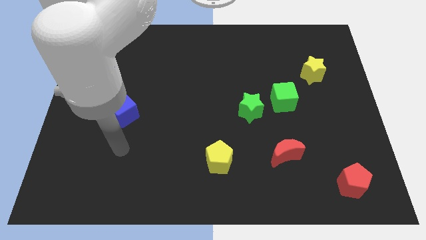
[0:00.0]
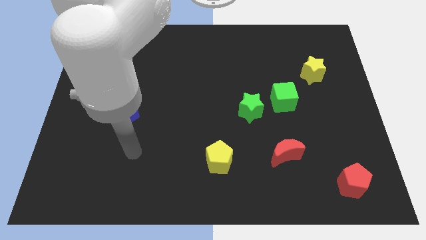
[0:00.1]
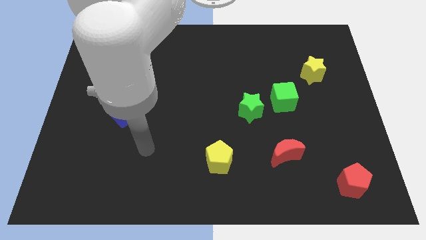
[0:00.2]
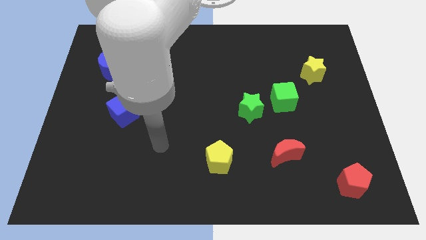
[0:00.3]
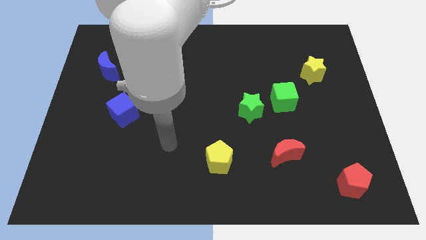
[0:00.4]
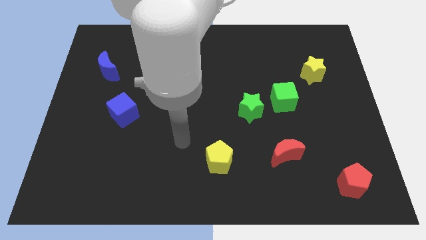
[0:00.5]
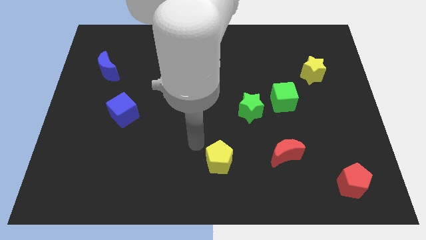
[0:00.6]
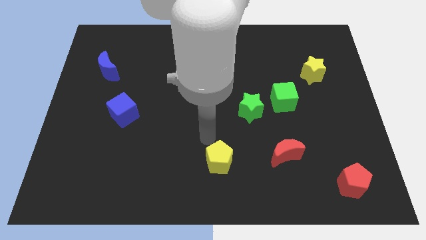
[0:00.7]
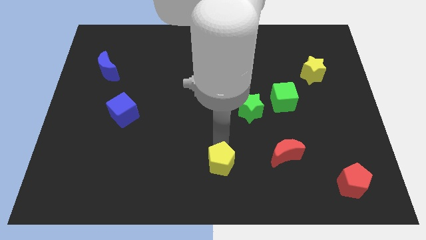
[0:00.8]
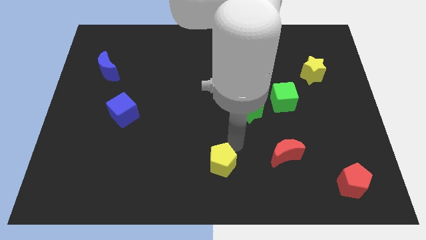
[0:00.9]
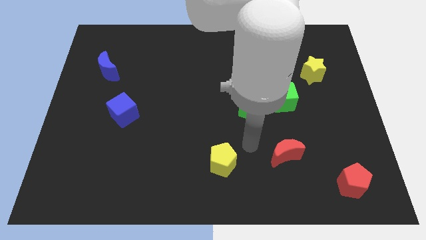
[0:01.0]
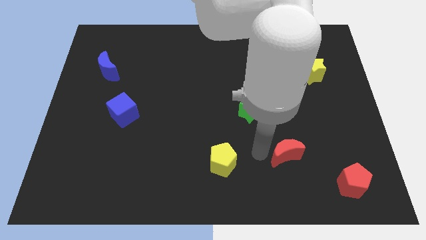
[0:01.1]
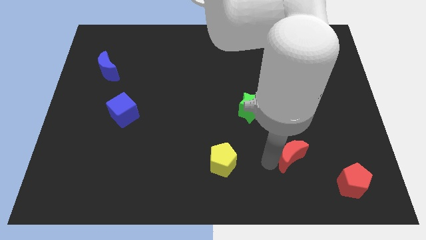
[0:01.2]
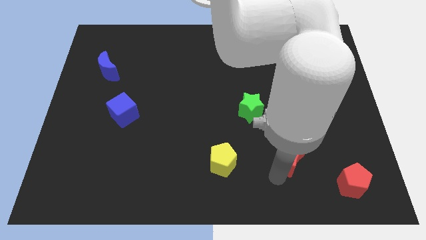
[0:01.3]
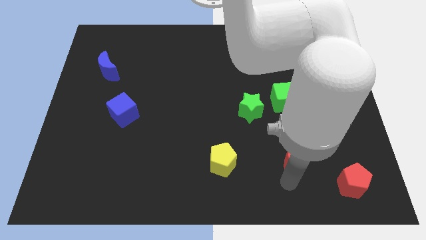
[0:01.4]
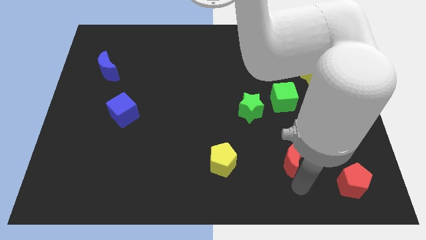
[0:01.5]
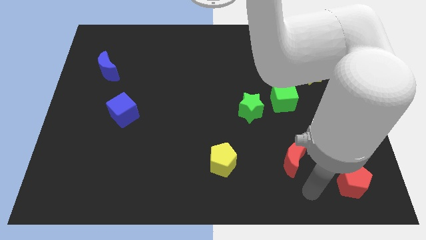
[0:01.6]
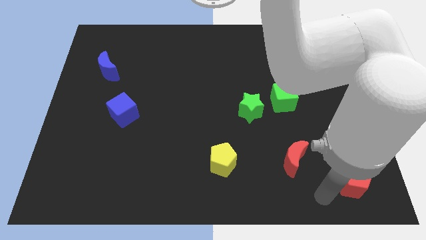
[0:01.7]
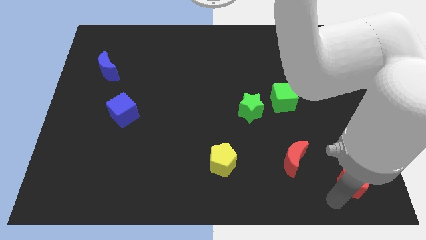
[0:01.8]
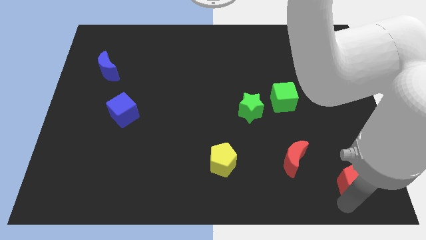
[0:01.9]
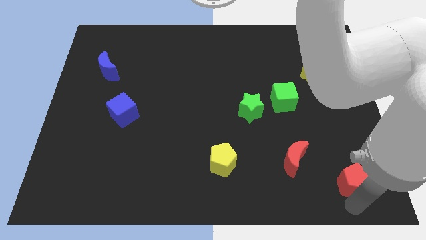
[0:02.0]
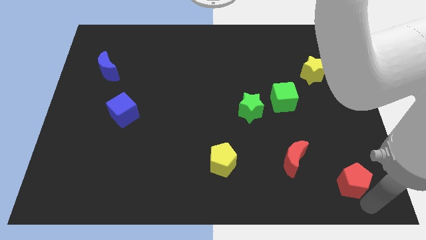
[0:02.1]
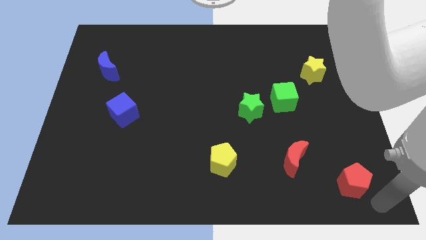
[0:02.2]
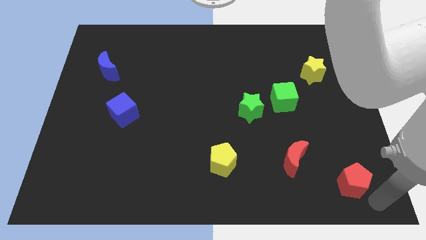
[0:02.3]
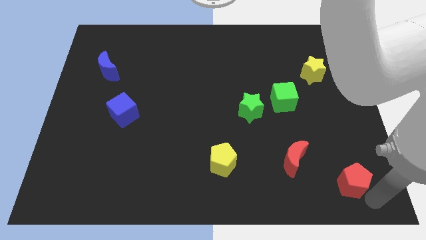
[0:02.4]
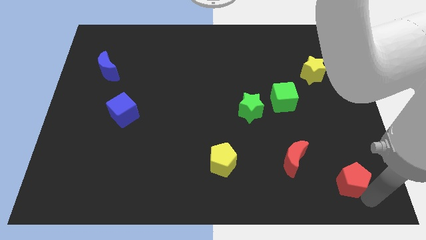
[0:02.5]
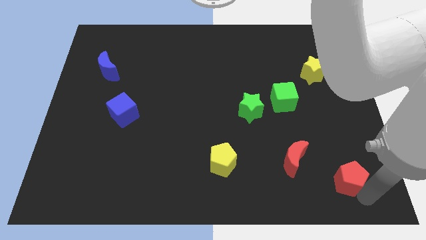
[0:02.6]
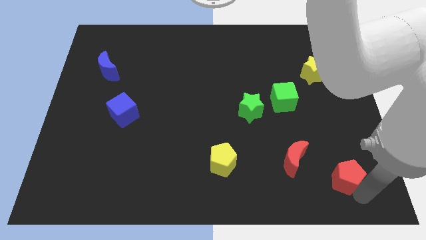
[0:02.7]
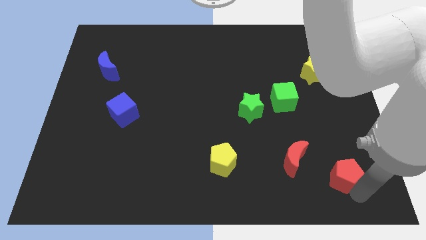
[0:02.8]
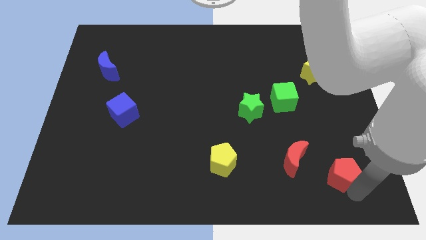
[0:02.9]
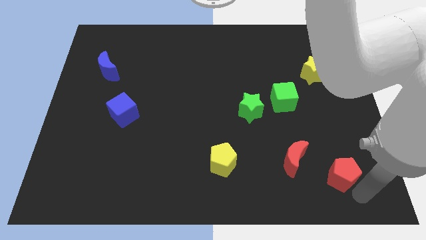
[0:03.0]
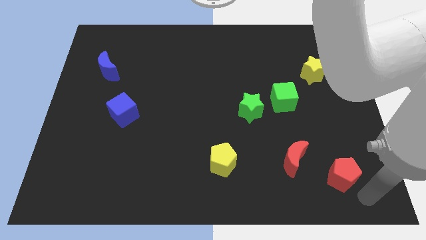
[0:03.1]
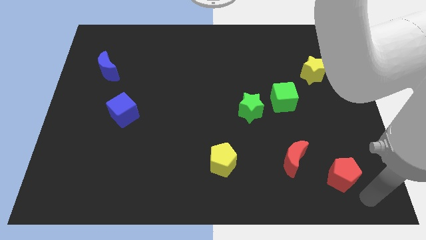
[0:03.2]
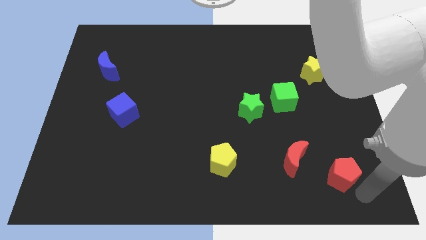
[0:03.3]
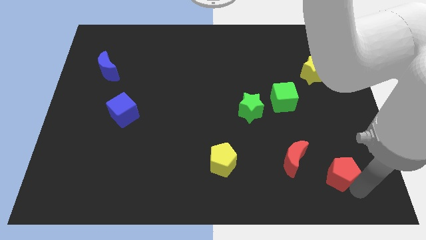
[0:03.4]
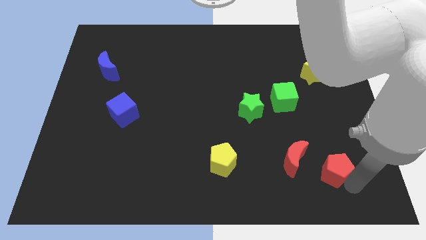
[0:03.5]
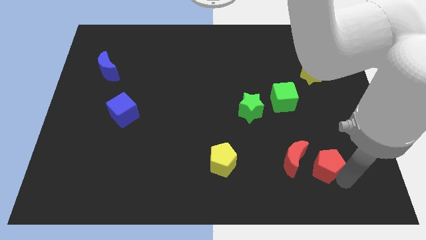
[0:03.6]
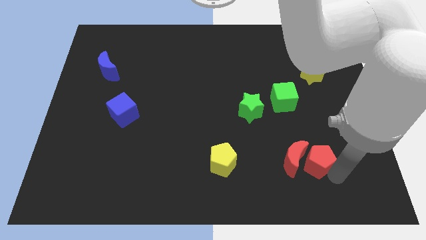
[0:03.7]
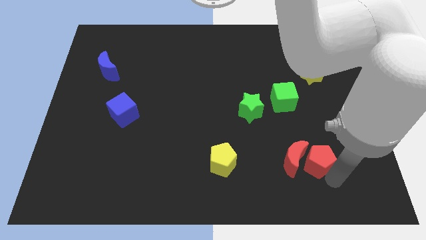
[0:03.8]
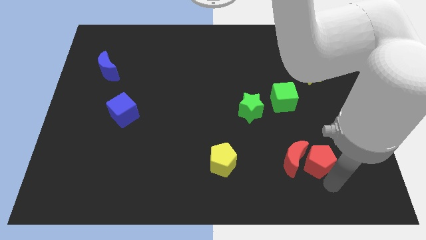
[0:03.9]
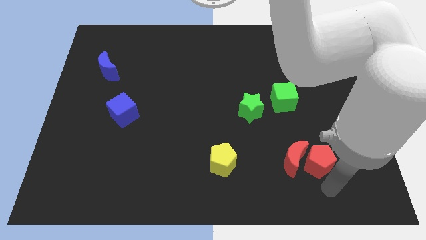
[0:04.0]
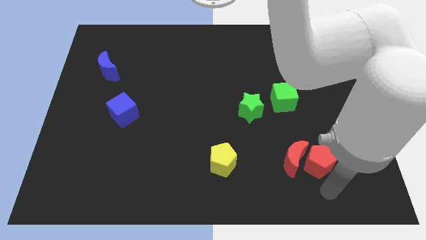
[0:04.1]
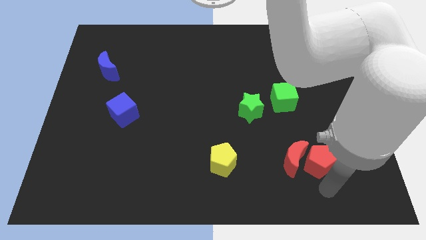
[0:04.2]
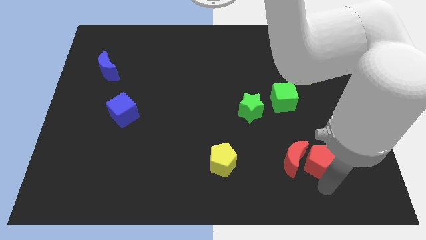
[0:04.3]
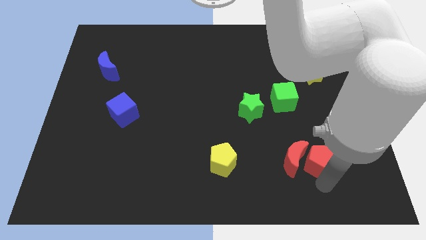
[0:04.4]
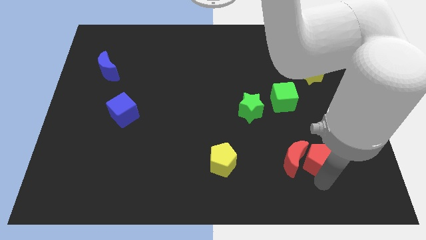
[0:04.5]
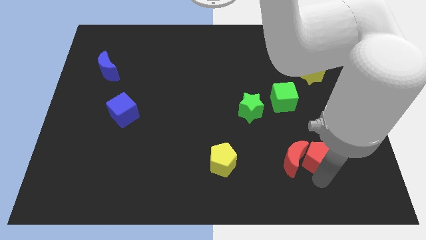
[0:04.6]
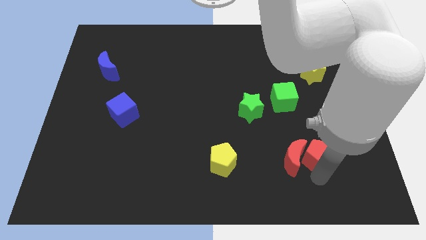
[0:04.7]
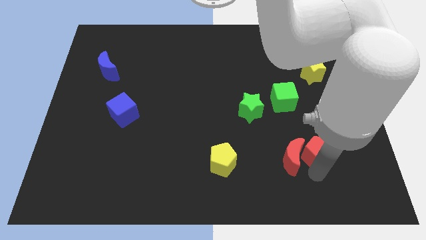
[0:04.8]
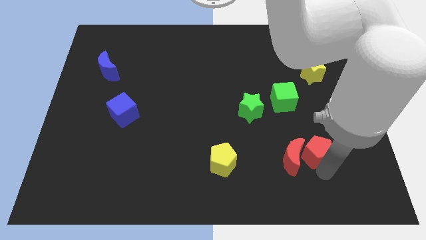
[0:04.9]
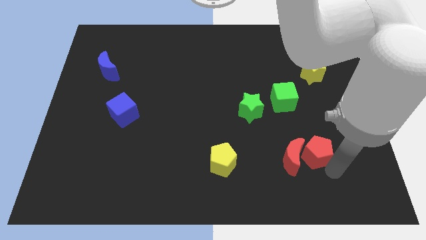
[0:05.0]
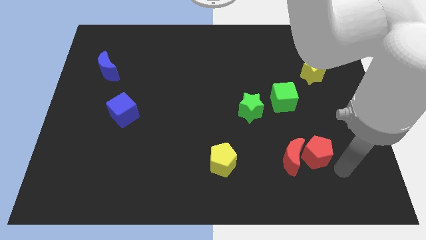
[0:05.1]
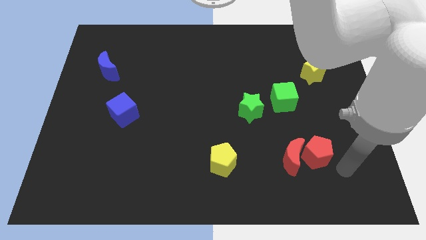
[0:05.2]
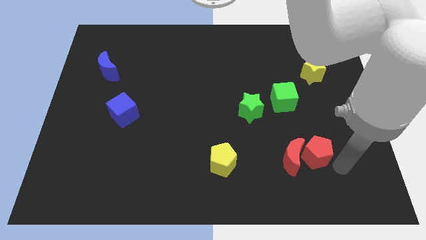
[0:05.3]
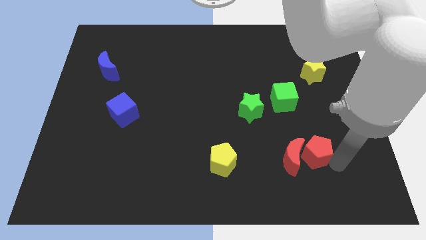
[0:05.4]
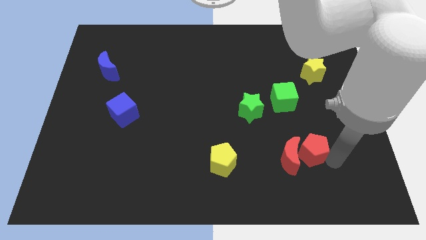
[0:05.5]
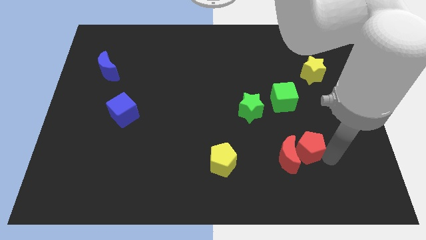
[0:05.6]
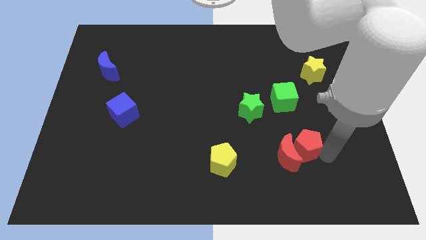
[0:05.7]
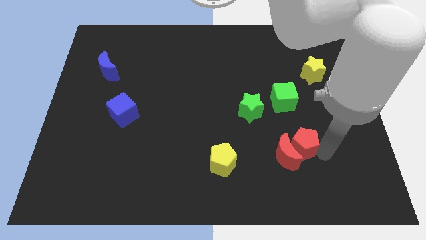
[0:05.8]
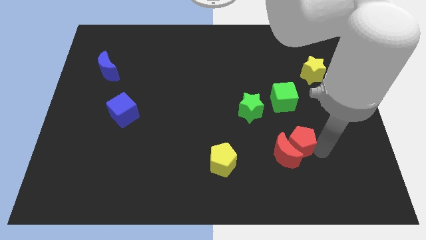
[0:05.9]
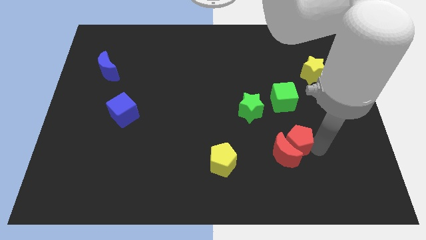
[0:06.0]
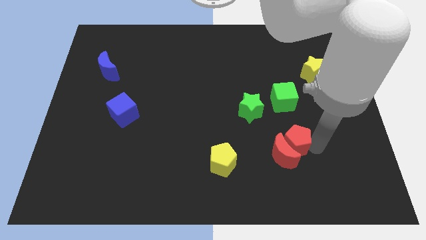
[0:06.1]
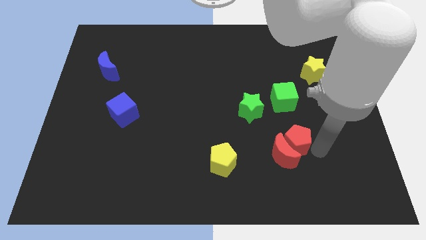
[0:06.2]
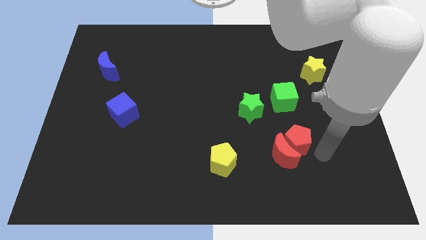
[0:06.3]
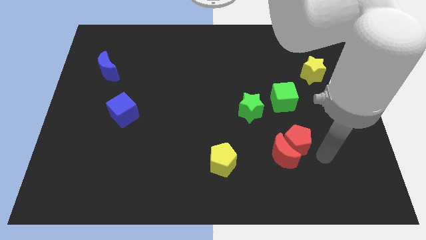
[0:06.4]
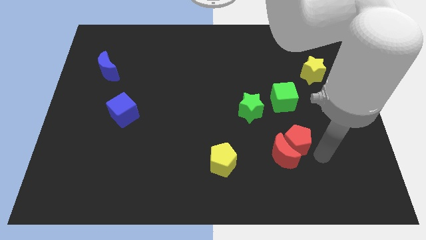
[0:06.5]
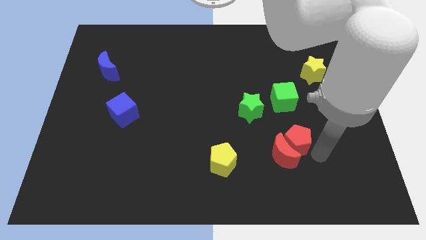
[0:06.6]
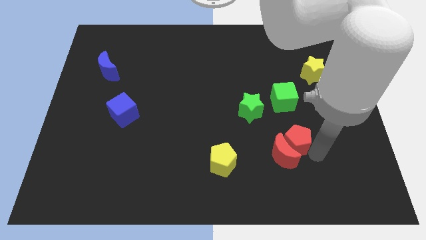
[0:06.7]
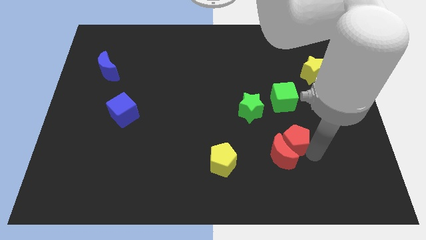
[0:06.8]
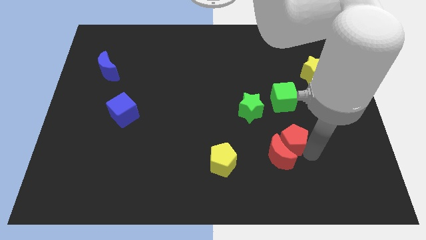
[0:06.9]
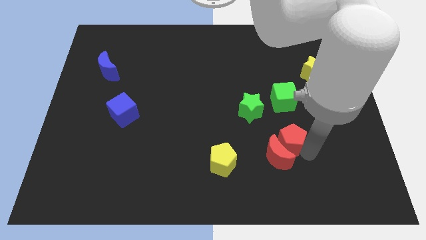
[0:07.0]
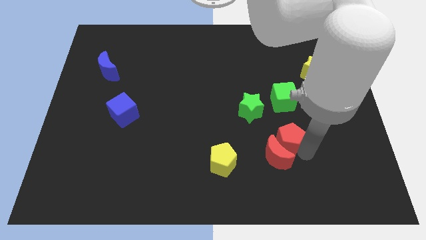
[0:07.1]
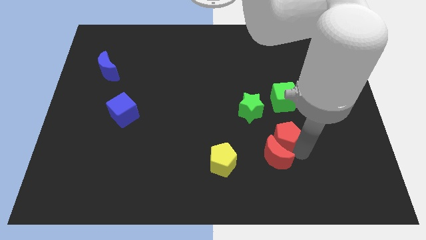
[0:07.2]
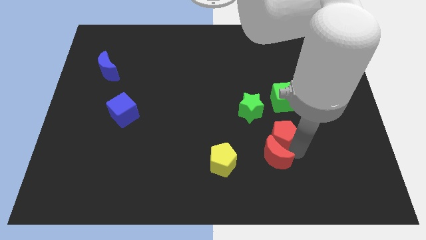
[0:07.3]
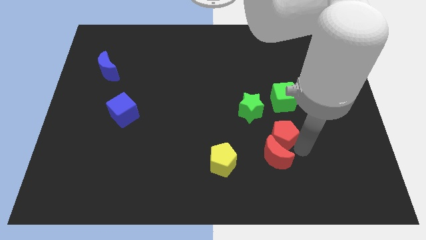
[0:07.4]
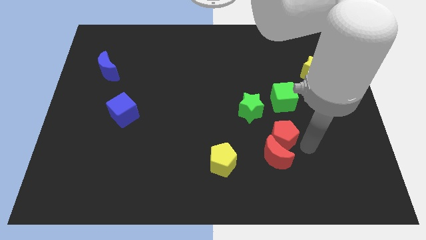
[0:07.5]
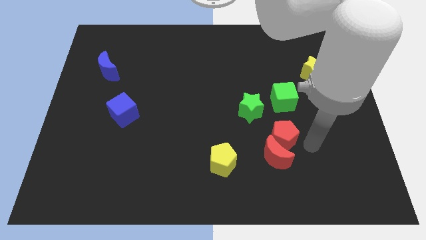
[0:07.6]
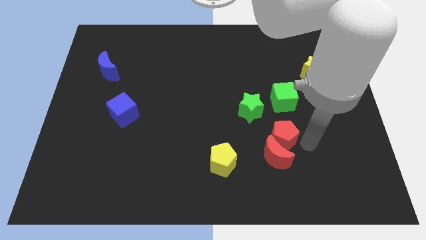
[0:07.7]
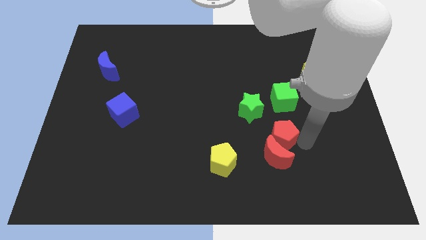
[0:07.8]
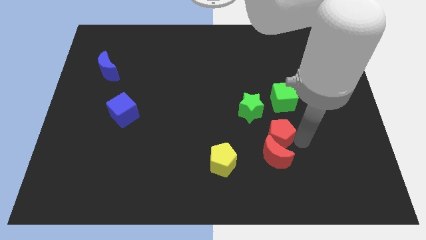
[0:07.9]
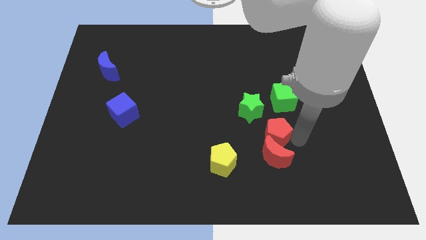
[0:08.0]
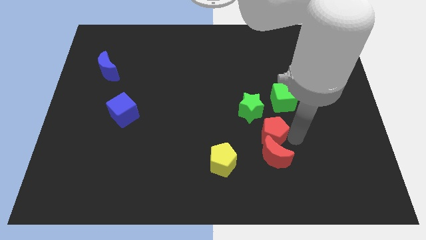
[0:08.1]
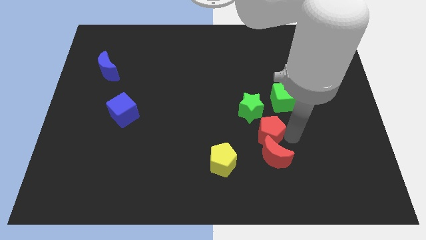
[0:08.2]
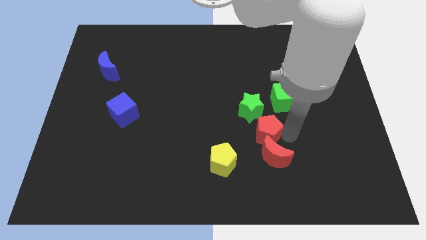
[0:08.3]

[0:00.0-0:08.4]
move the red pentagon diagonally upwards and left
